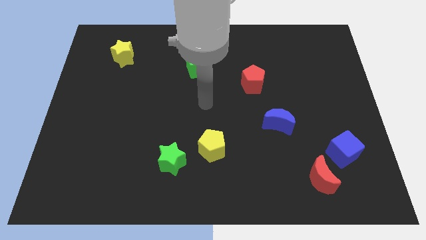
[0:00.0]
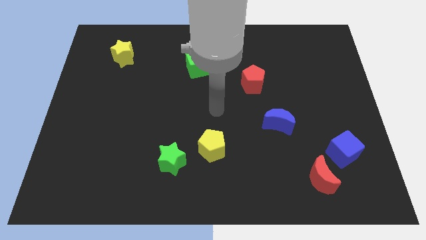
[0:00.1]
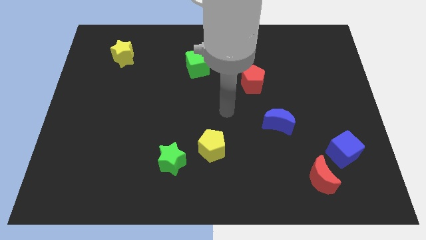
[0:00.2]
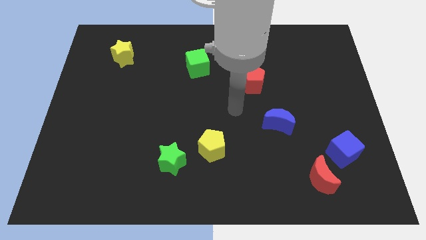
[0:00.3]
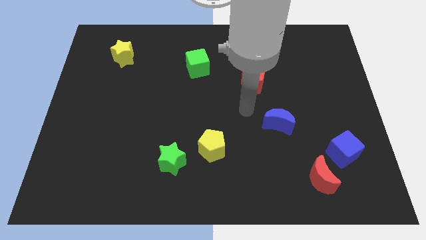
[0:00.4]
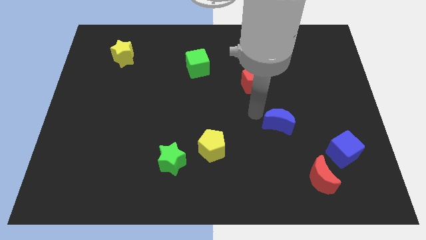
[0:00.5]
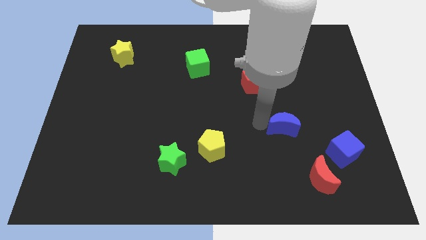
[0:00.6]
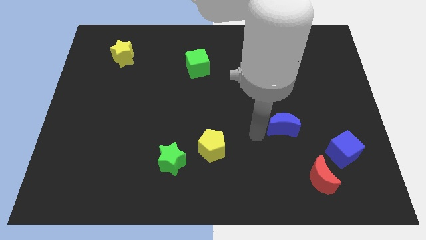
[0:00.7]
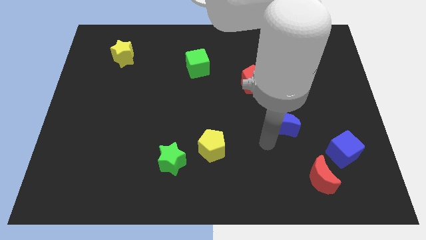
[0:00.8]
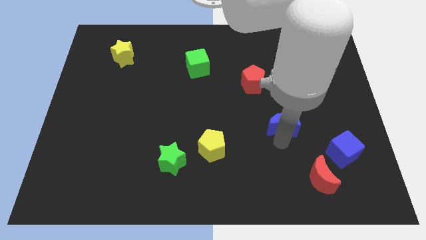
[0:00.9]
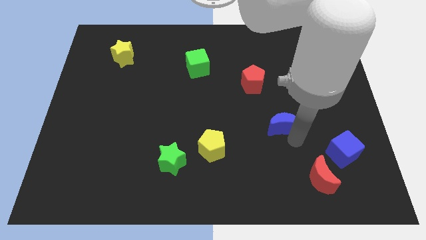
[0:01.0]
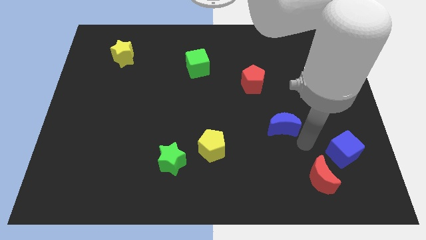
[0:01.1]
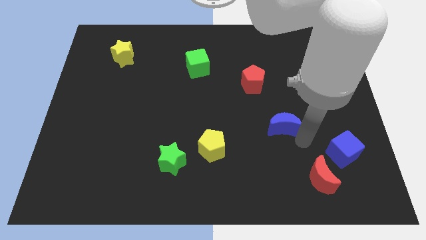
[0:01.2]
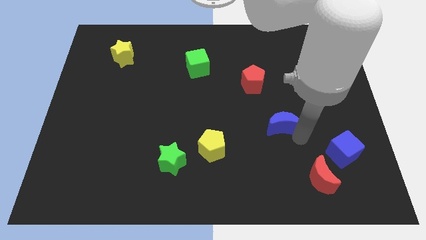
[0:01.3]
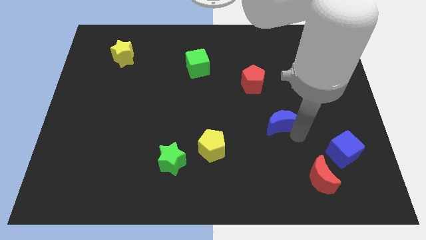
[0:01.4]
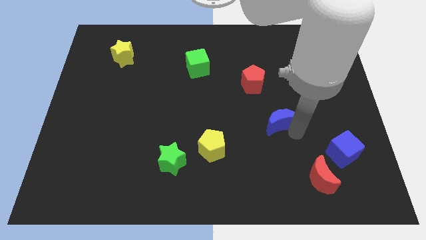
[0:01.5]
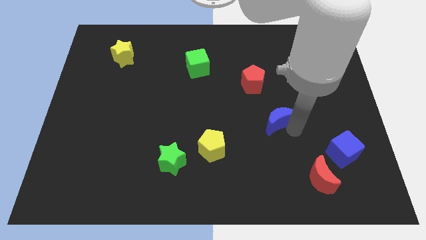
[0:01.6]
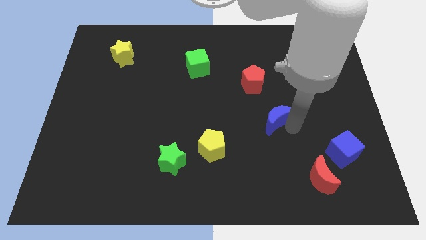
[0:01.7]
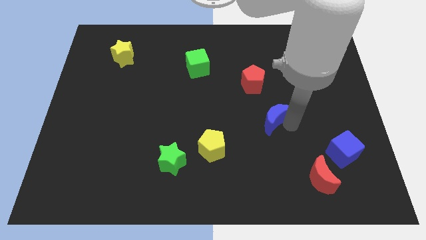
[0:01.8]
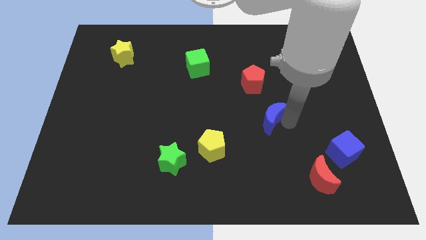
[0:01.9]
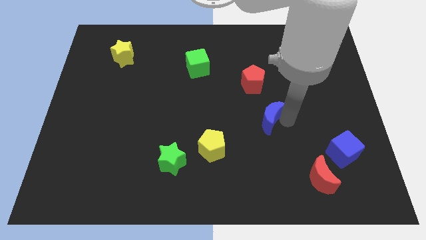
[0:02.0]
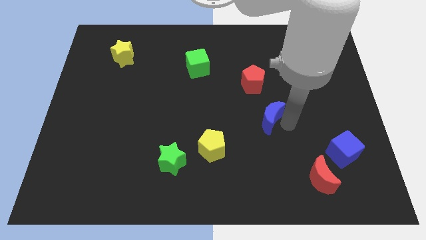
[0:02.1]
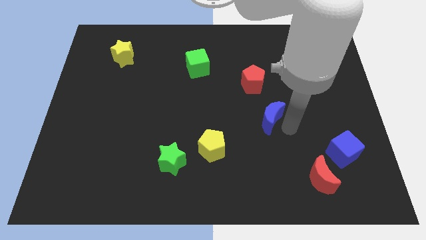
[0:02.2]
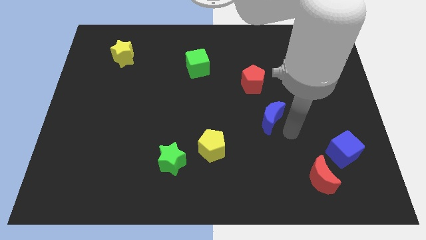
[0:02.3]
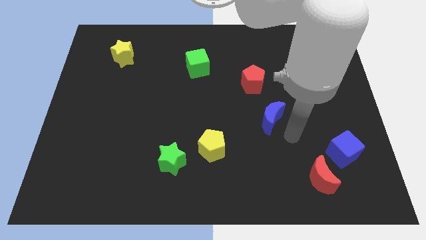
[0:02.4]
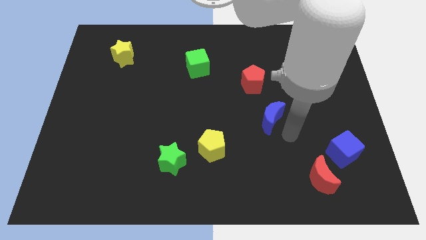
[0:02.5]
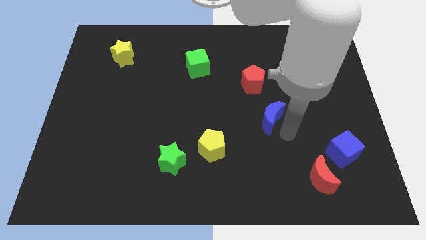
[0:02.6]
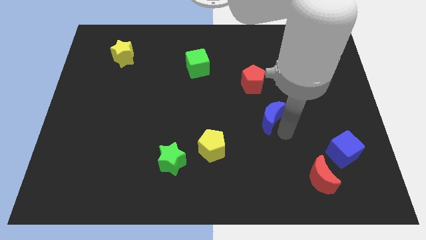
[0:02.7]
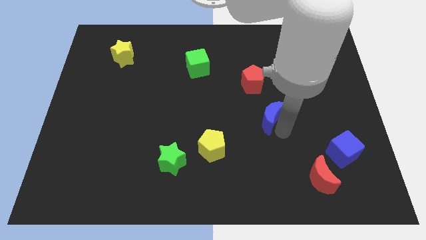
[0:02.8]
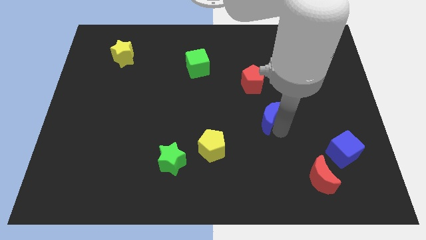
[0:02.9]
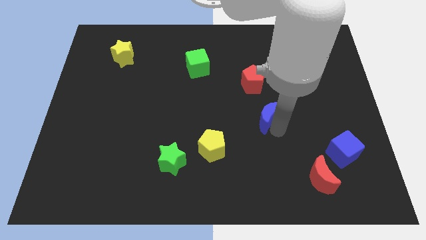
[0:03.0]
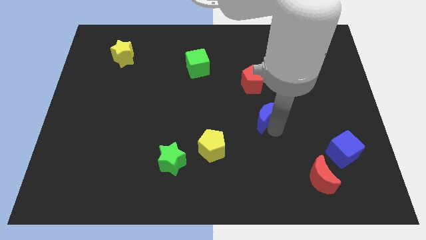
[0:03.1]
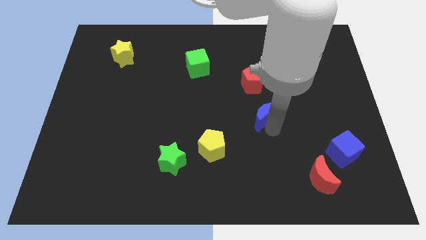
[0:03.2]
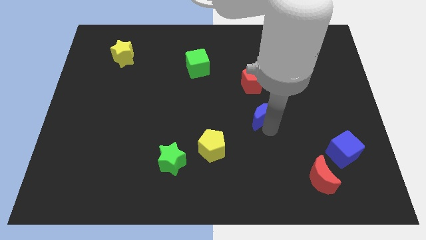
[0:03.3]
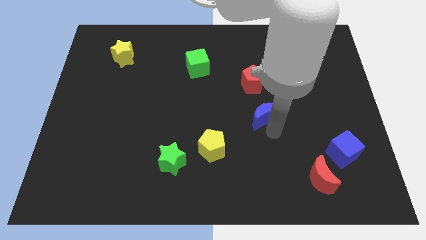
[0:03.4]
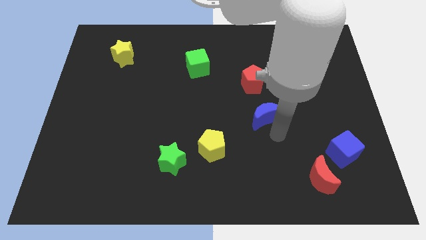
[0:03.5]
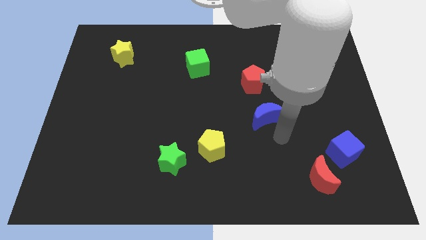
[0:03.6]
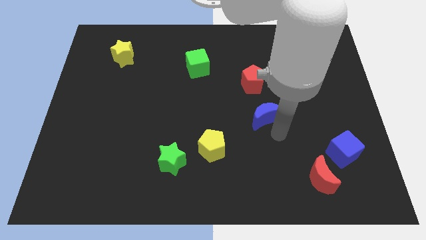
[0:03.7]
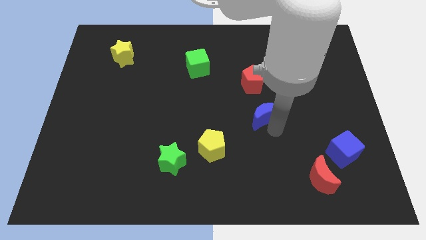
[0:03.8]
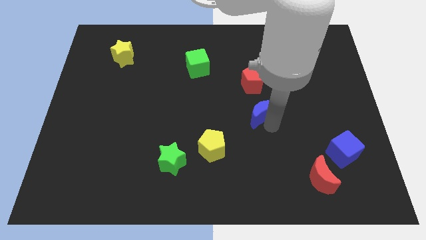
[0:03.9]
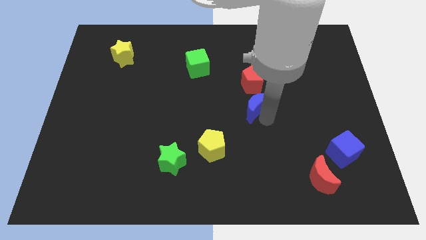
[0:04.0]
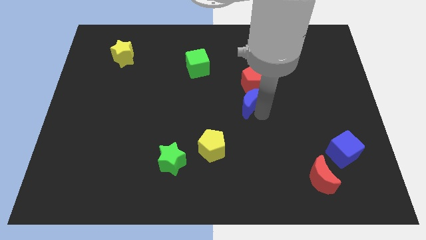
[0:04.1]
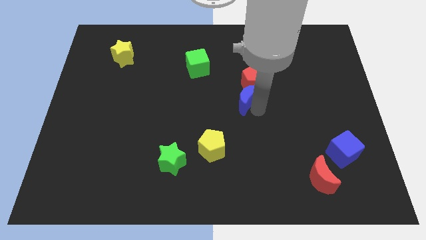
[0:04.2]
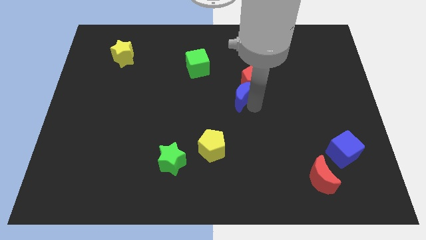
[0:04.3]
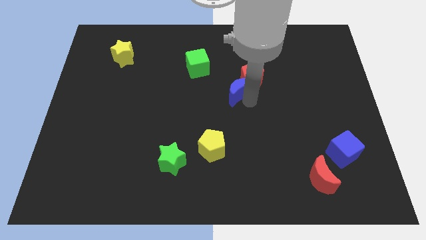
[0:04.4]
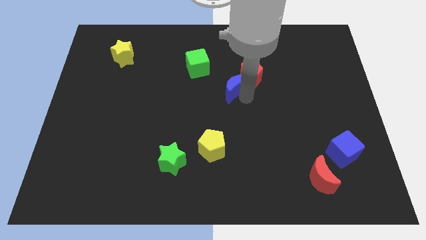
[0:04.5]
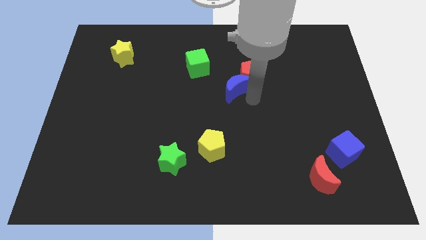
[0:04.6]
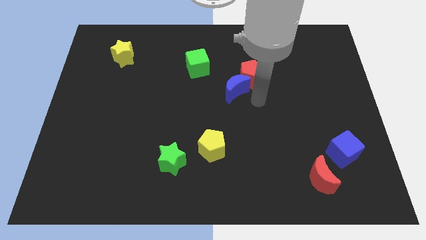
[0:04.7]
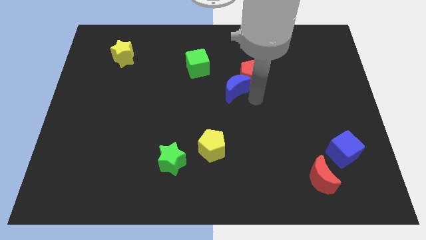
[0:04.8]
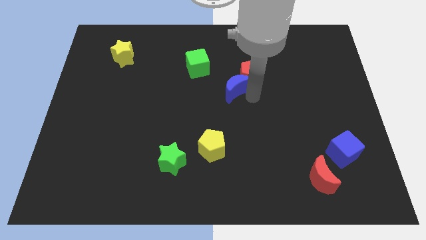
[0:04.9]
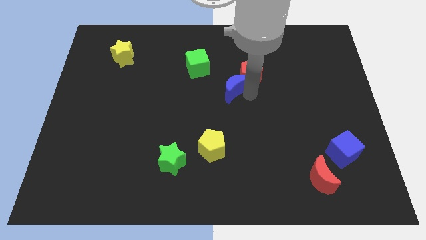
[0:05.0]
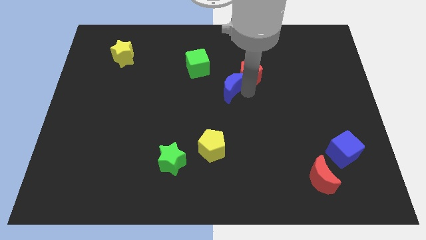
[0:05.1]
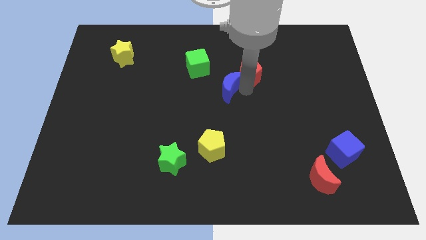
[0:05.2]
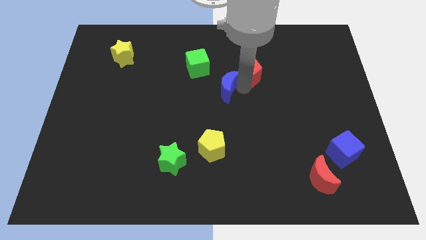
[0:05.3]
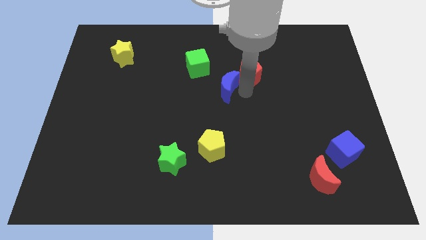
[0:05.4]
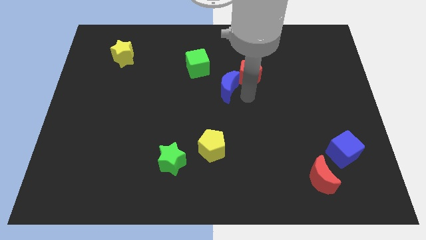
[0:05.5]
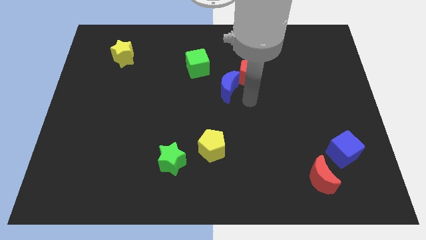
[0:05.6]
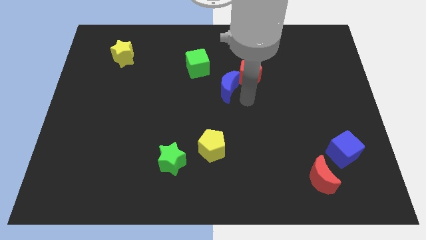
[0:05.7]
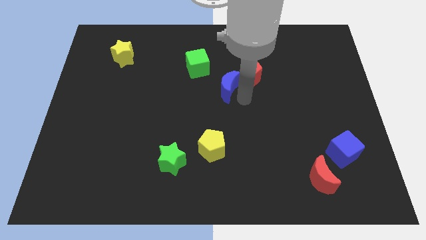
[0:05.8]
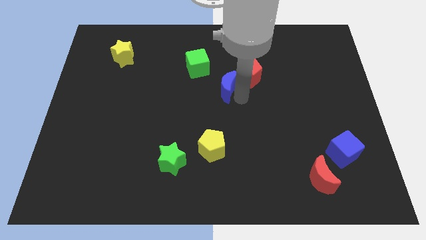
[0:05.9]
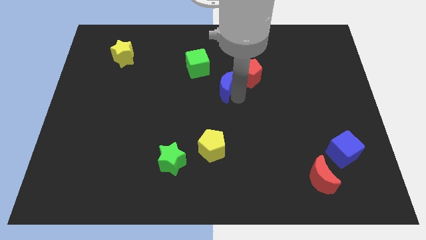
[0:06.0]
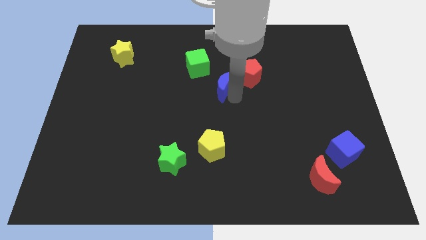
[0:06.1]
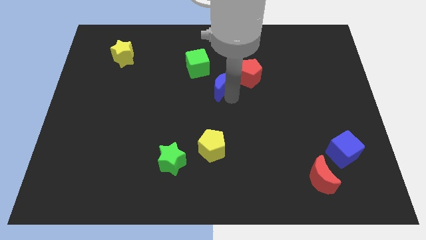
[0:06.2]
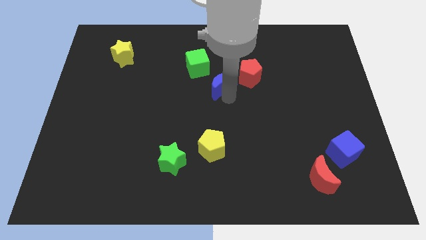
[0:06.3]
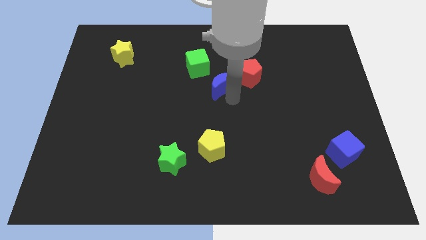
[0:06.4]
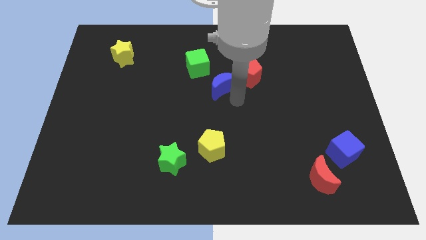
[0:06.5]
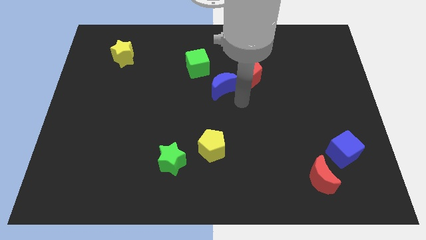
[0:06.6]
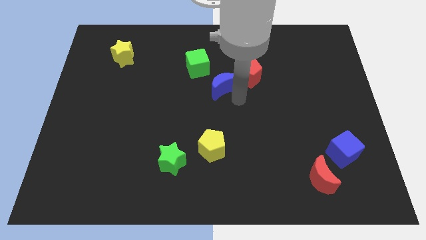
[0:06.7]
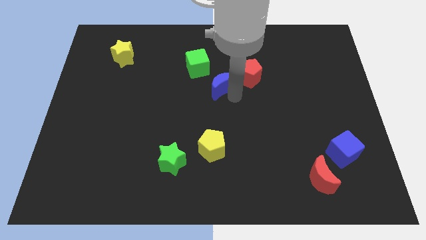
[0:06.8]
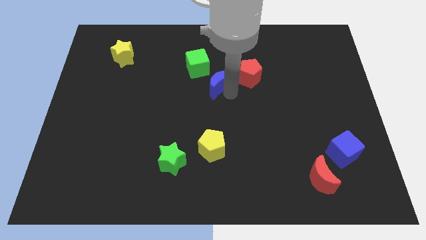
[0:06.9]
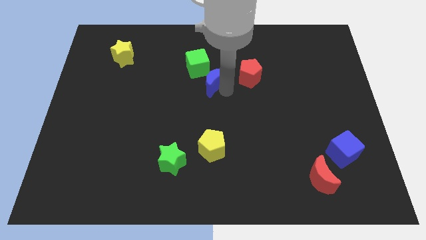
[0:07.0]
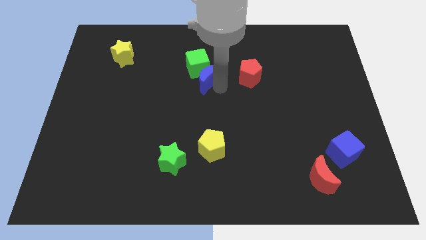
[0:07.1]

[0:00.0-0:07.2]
put the blue moon to the green cube
